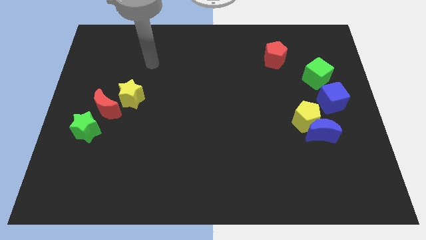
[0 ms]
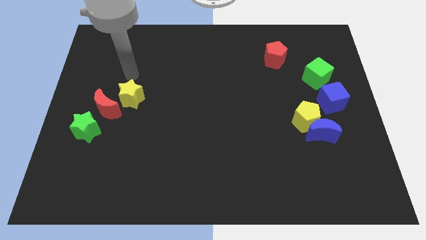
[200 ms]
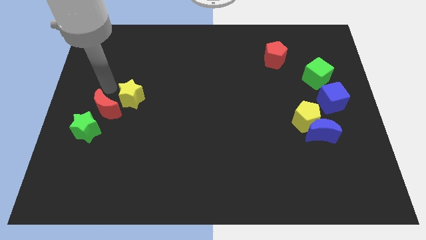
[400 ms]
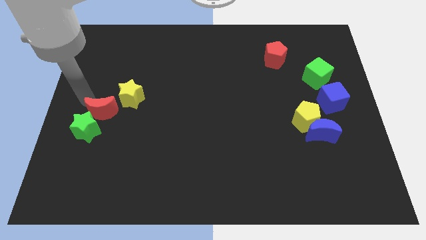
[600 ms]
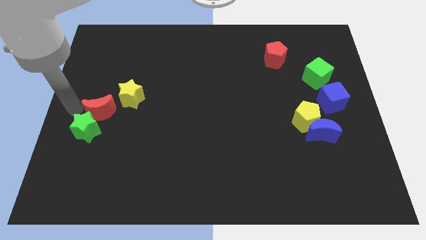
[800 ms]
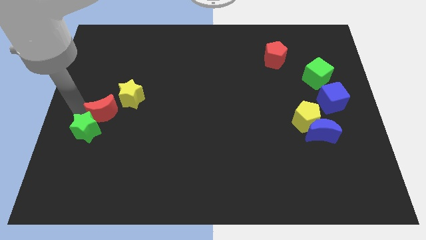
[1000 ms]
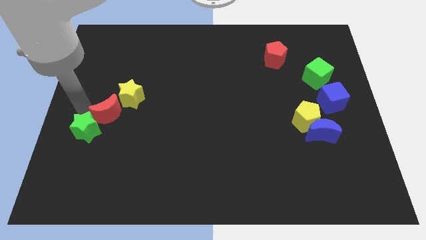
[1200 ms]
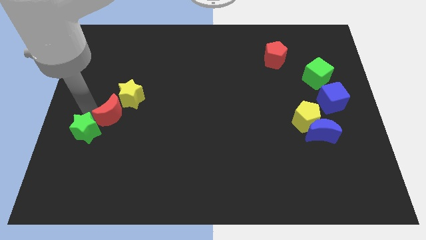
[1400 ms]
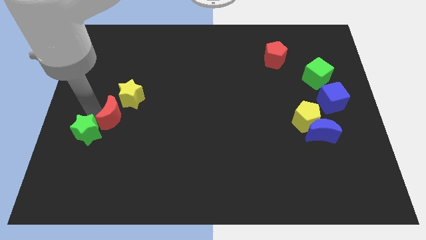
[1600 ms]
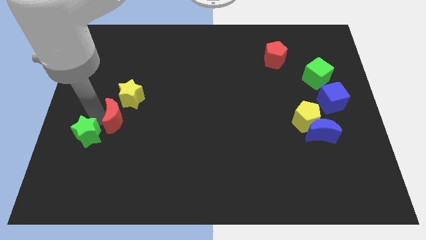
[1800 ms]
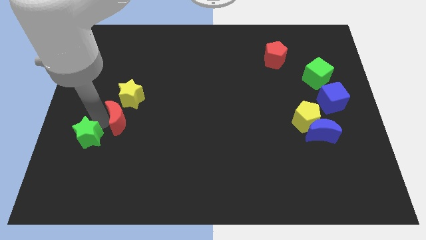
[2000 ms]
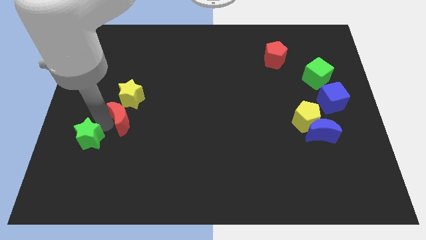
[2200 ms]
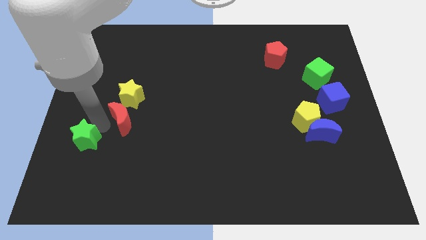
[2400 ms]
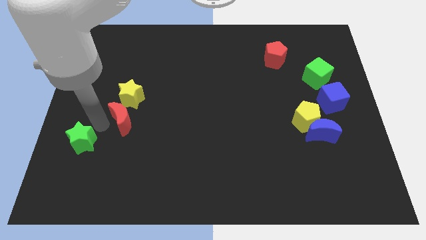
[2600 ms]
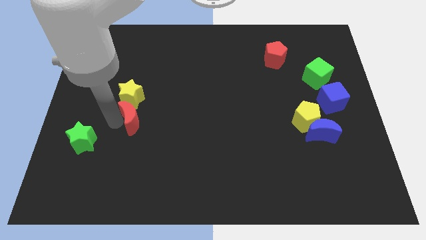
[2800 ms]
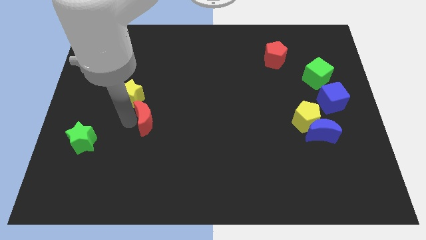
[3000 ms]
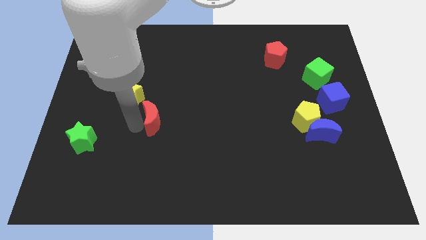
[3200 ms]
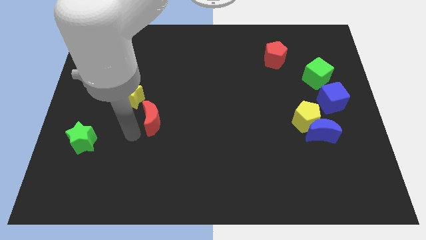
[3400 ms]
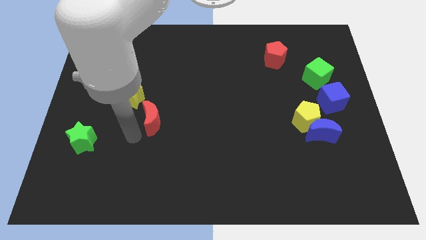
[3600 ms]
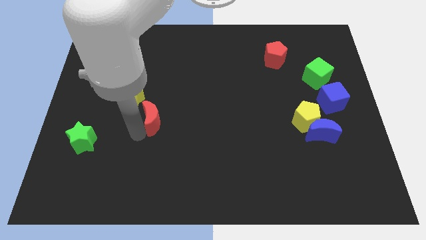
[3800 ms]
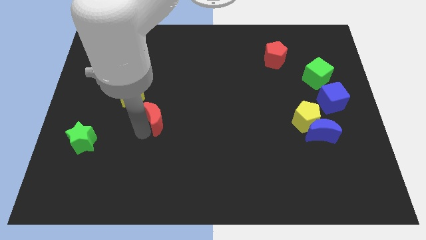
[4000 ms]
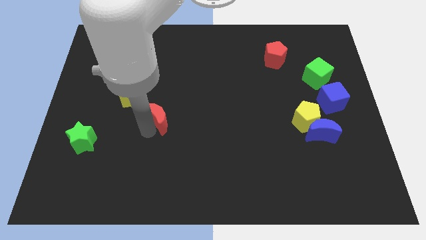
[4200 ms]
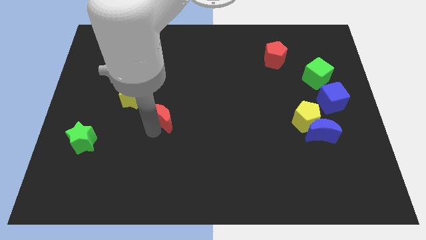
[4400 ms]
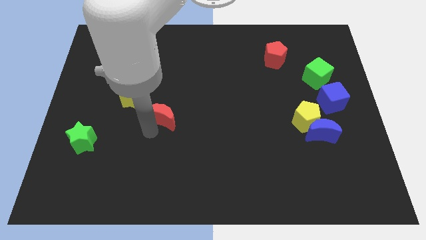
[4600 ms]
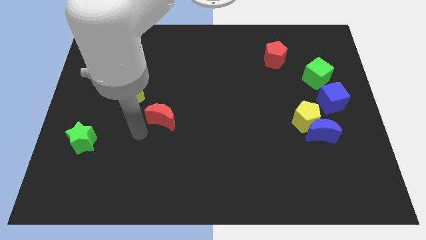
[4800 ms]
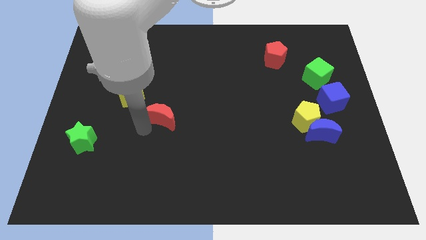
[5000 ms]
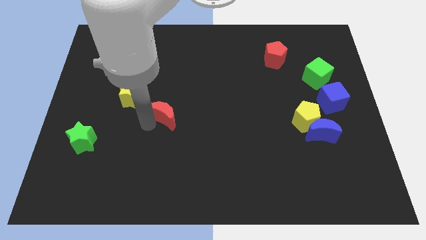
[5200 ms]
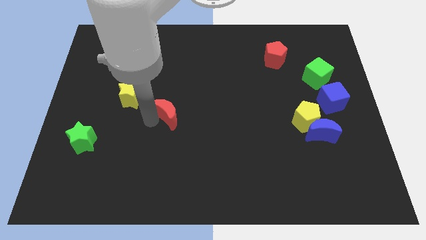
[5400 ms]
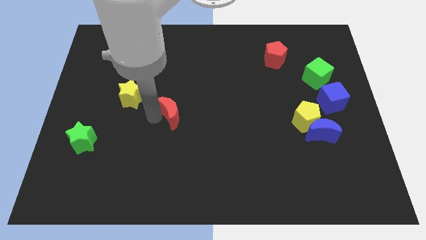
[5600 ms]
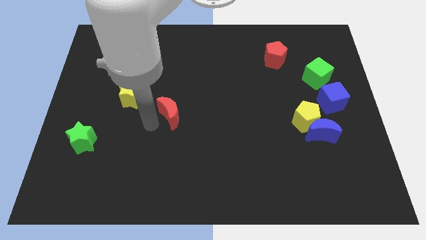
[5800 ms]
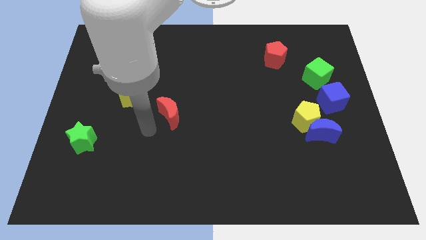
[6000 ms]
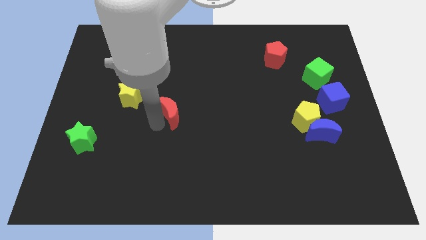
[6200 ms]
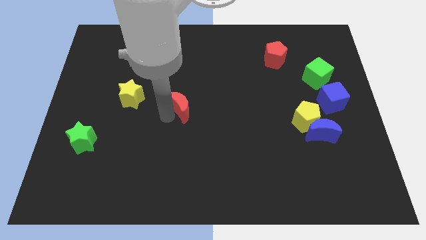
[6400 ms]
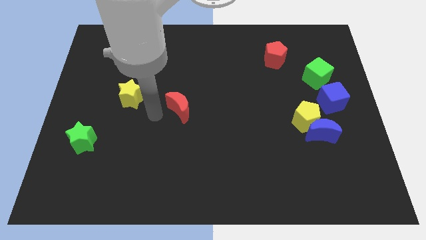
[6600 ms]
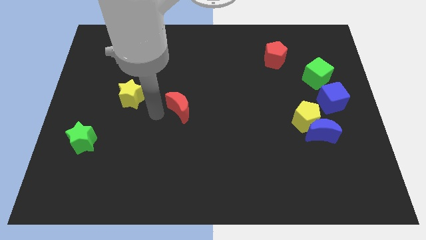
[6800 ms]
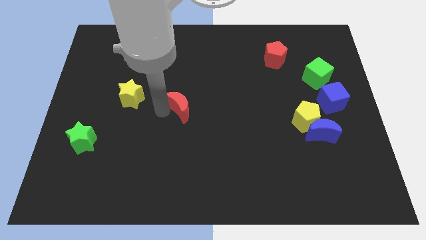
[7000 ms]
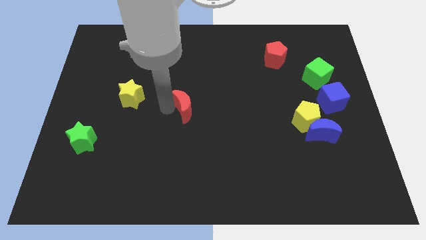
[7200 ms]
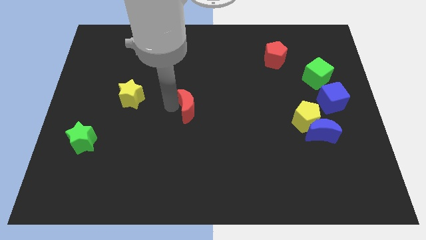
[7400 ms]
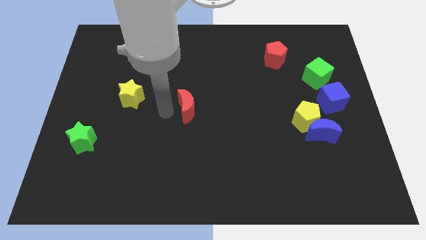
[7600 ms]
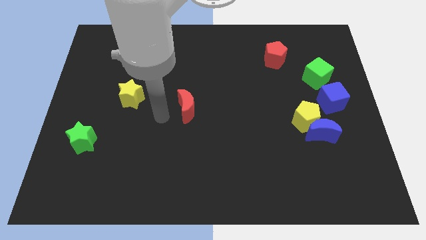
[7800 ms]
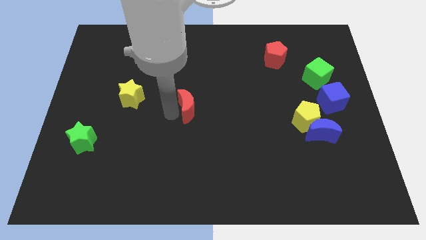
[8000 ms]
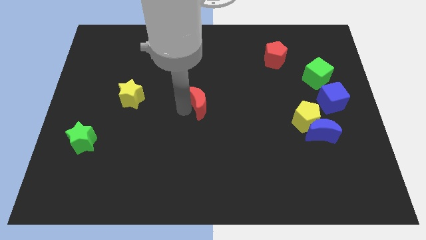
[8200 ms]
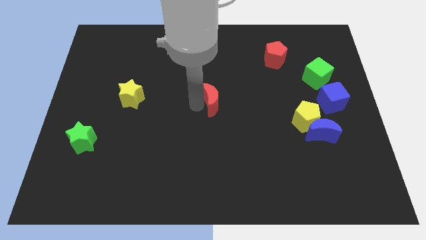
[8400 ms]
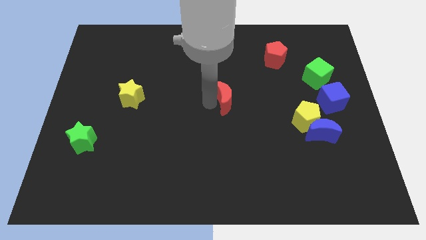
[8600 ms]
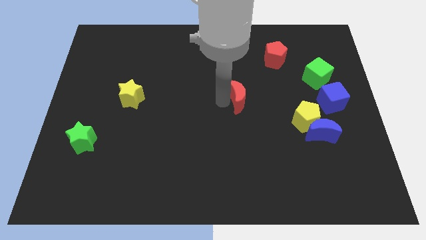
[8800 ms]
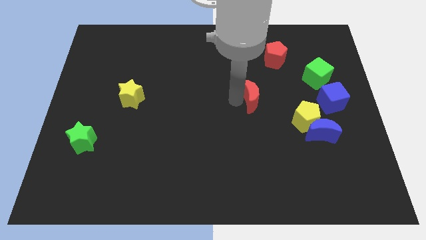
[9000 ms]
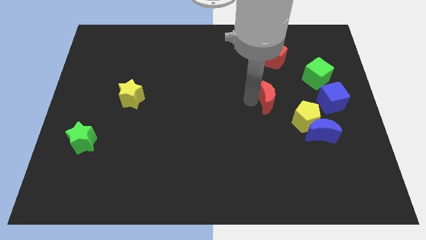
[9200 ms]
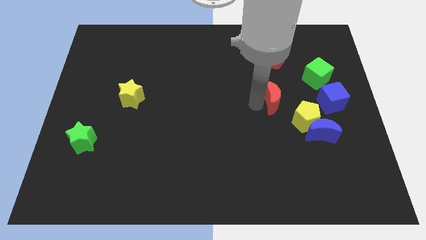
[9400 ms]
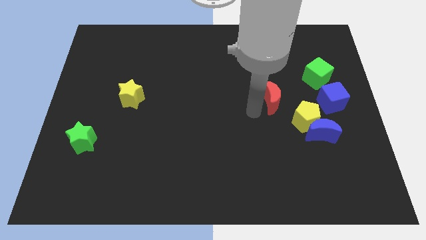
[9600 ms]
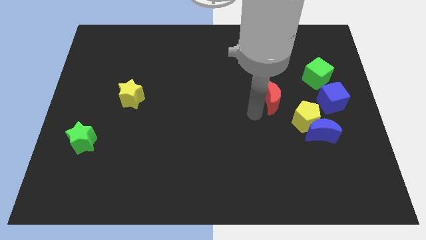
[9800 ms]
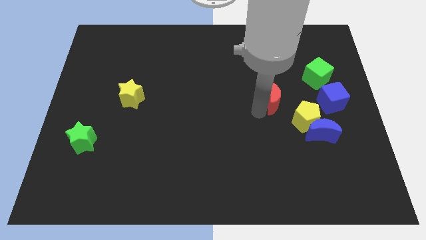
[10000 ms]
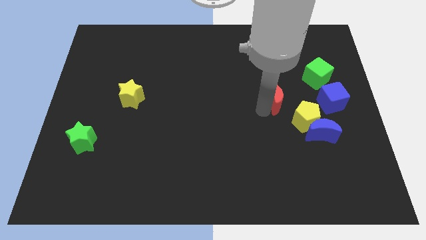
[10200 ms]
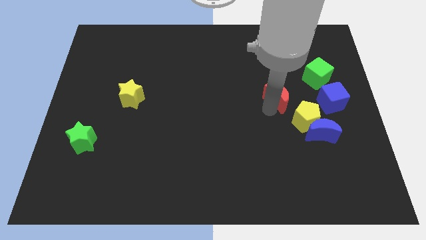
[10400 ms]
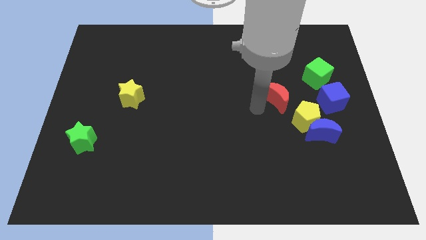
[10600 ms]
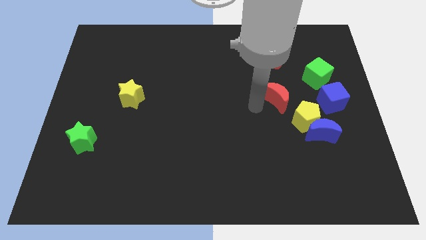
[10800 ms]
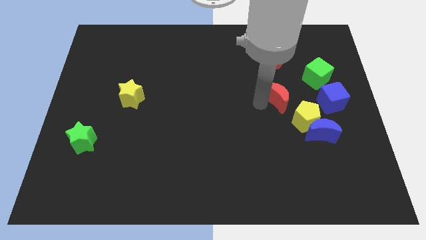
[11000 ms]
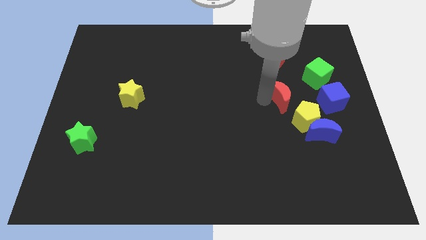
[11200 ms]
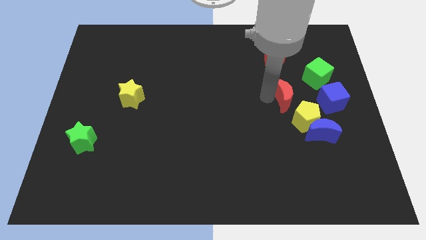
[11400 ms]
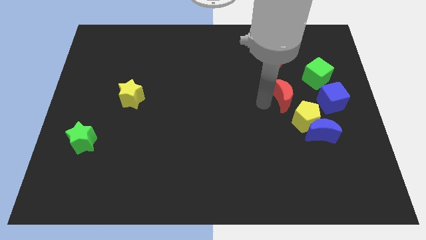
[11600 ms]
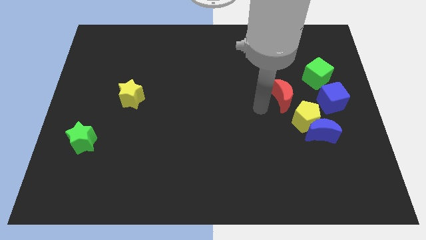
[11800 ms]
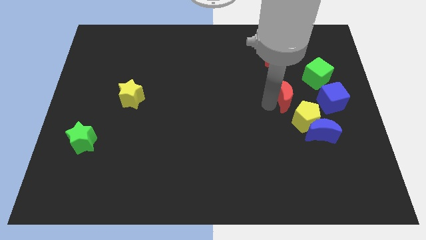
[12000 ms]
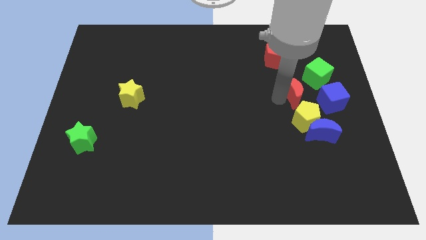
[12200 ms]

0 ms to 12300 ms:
put the red moon above the blue moon

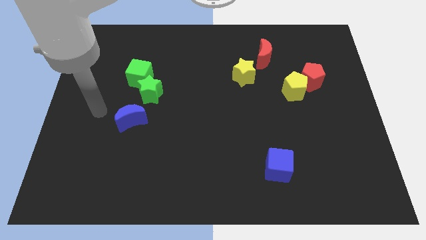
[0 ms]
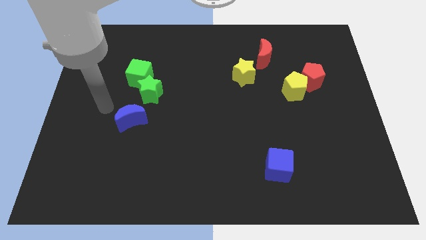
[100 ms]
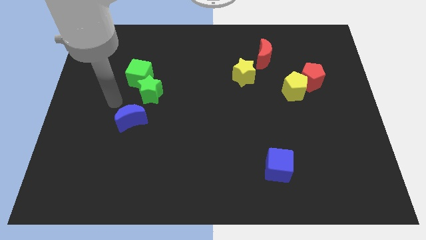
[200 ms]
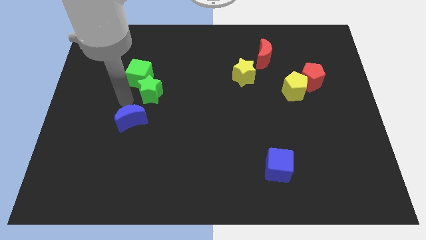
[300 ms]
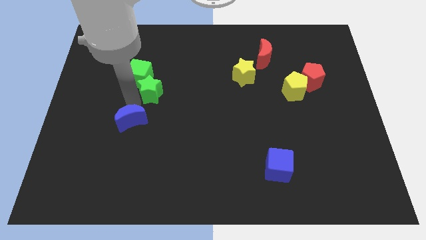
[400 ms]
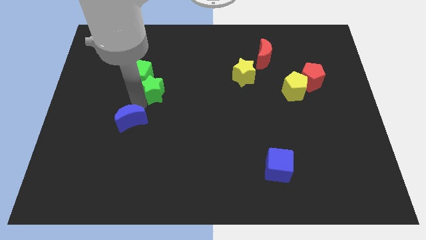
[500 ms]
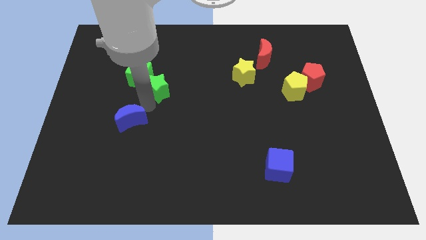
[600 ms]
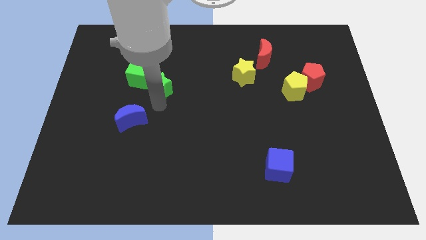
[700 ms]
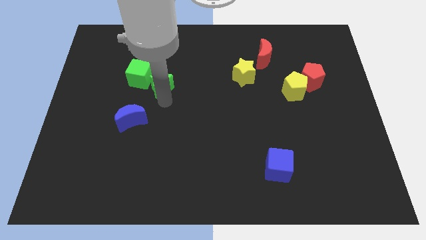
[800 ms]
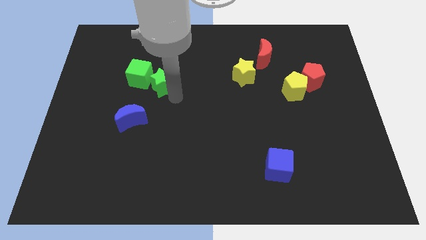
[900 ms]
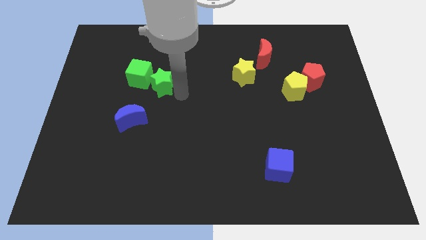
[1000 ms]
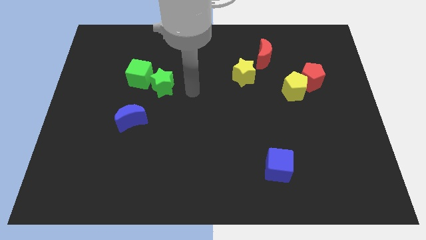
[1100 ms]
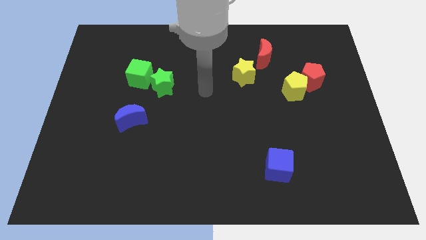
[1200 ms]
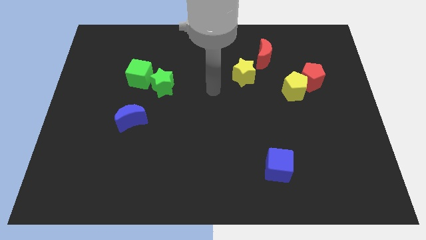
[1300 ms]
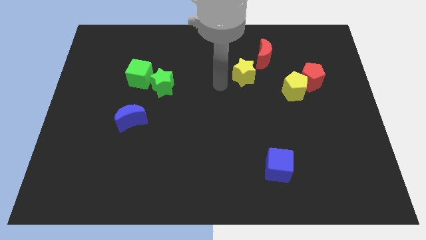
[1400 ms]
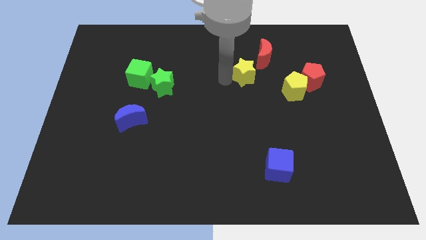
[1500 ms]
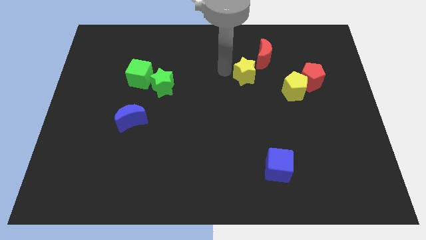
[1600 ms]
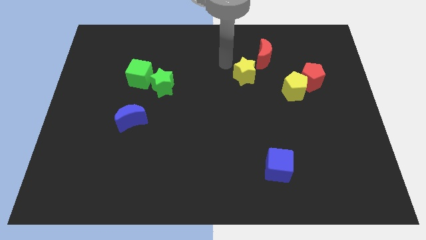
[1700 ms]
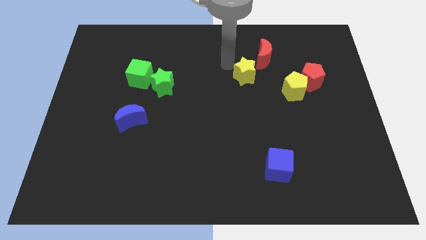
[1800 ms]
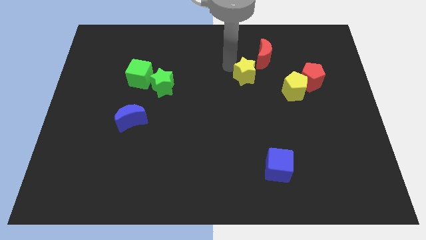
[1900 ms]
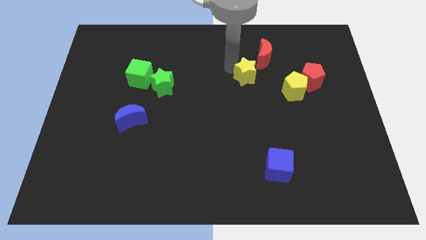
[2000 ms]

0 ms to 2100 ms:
slide the yellow star to the bottom of the red moon

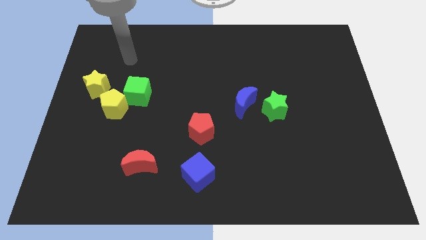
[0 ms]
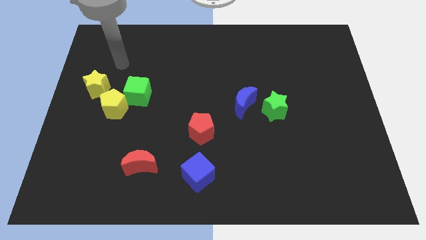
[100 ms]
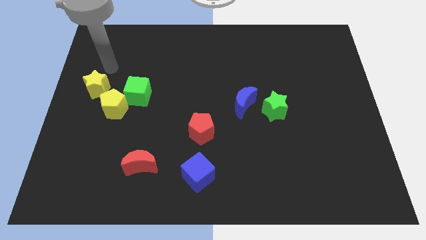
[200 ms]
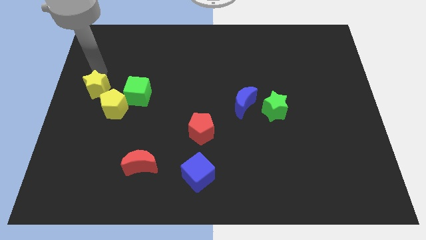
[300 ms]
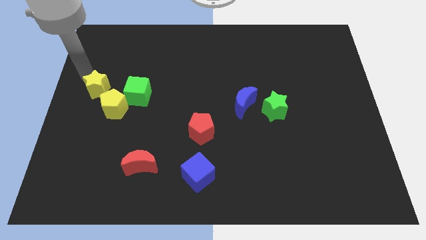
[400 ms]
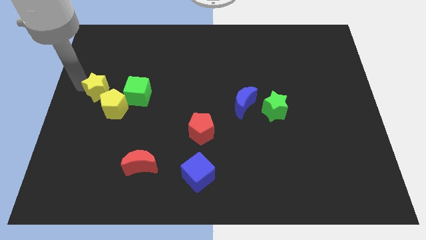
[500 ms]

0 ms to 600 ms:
slide the yellow star above the yellow pentagon
